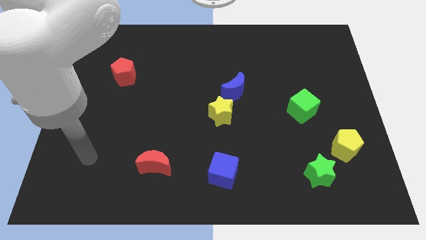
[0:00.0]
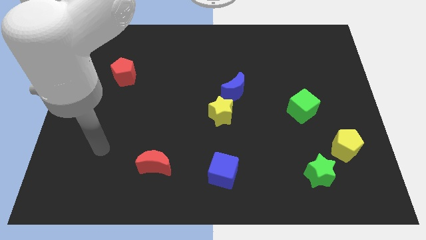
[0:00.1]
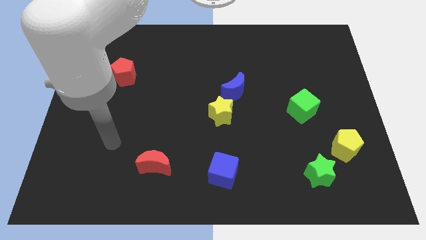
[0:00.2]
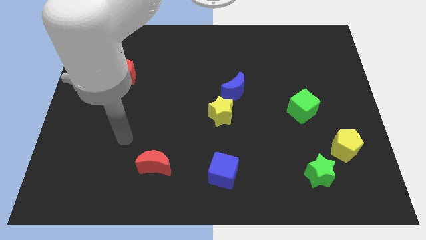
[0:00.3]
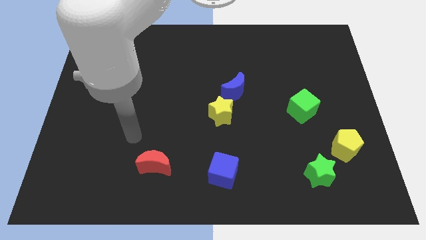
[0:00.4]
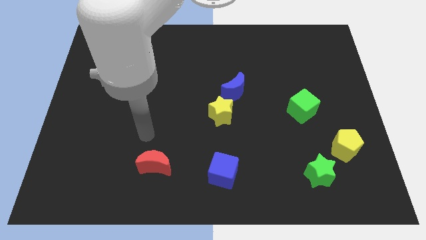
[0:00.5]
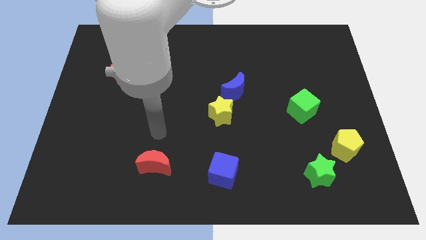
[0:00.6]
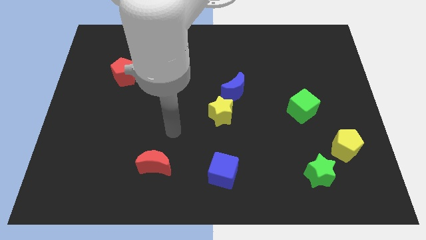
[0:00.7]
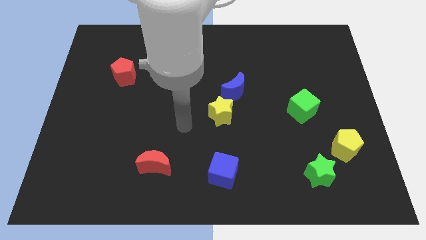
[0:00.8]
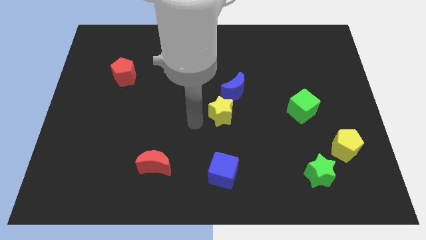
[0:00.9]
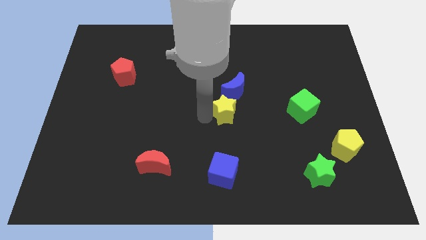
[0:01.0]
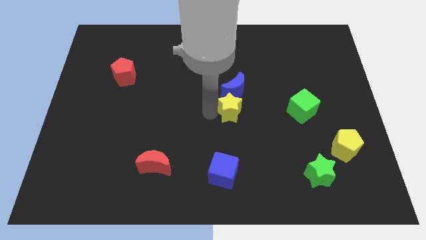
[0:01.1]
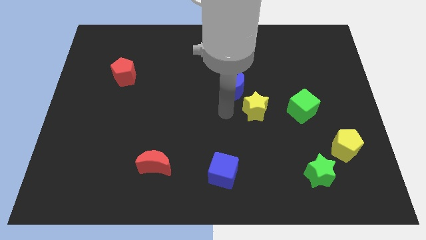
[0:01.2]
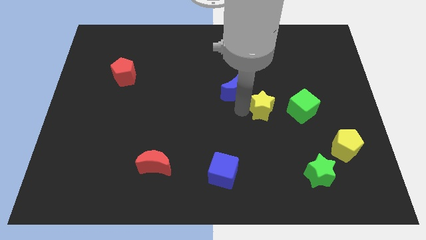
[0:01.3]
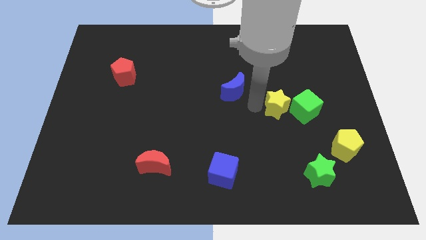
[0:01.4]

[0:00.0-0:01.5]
separate the blue moon from the yellow star

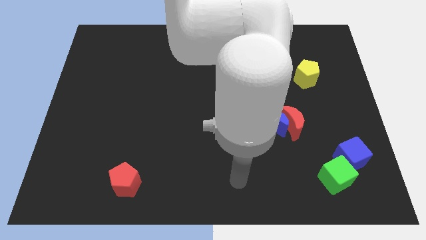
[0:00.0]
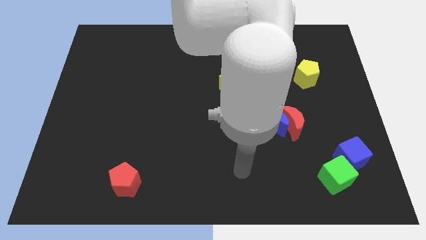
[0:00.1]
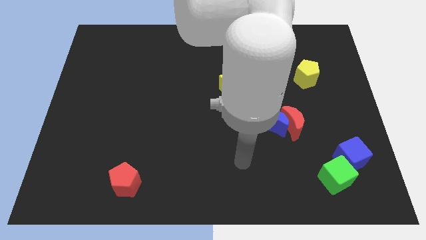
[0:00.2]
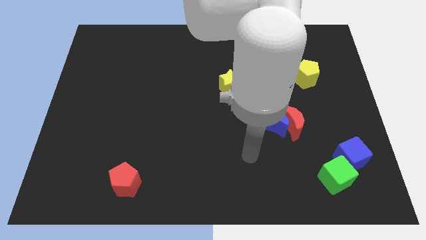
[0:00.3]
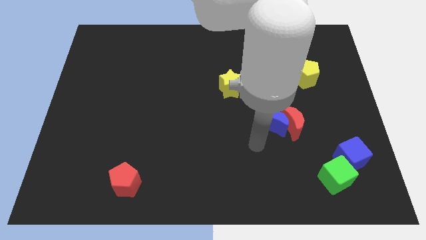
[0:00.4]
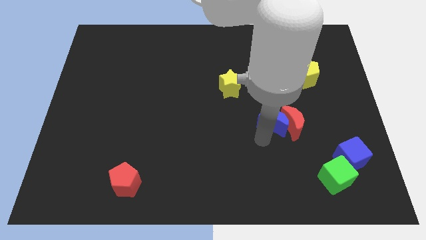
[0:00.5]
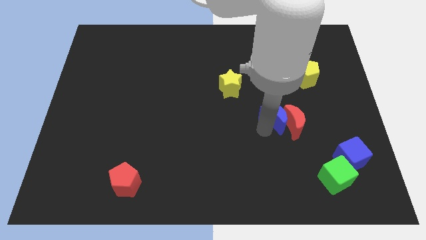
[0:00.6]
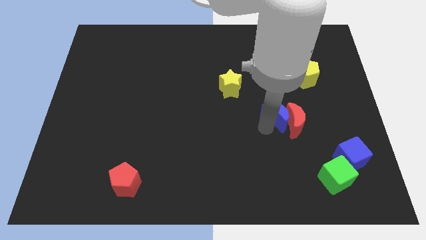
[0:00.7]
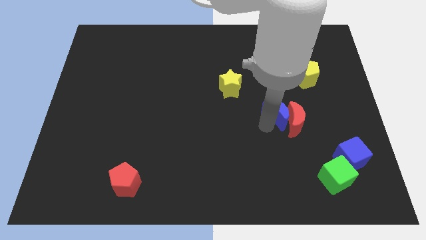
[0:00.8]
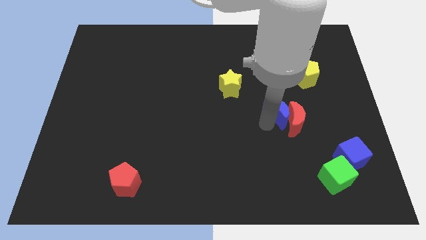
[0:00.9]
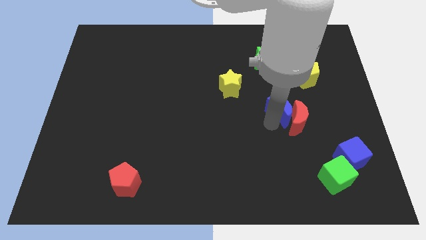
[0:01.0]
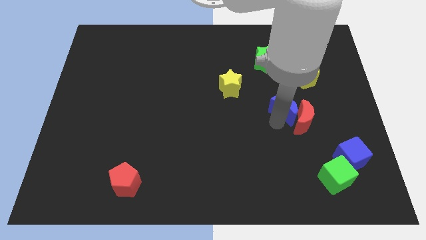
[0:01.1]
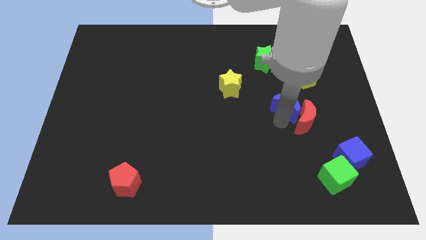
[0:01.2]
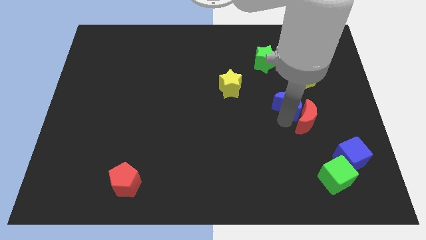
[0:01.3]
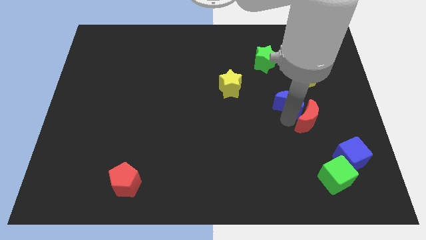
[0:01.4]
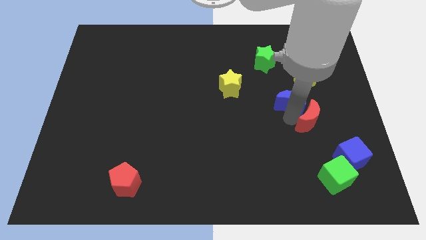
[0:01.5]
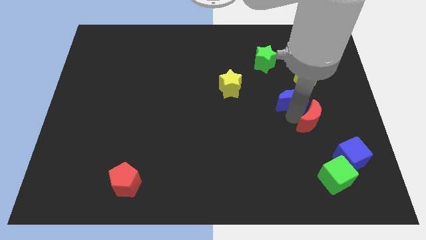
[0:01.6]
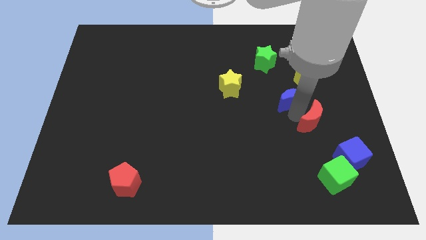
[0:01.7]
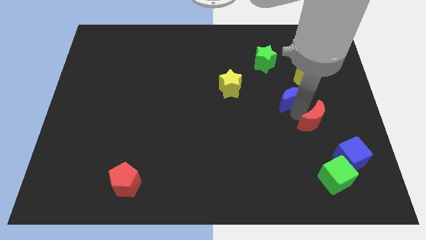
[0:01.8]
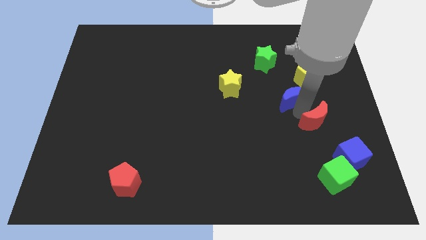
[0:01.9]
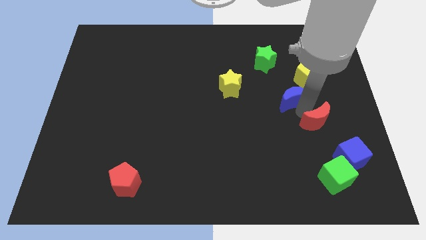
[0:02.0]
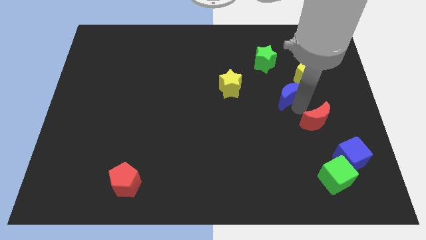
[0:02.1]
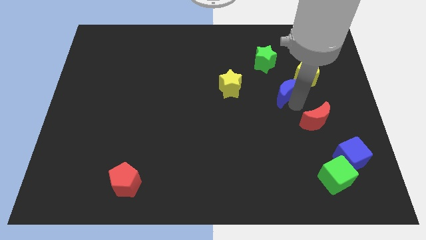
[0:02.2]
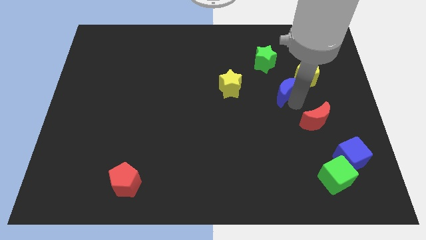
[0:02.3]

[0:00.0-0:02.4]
separate the red moon from the blue moon

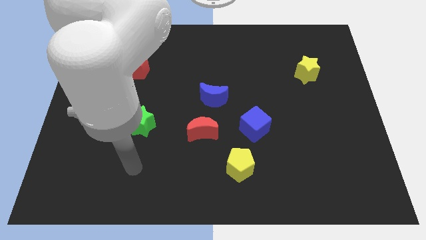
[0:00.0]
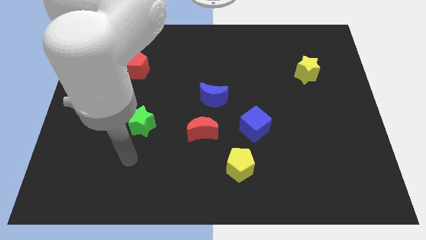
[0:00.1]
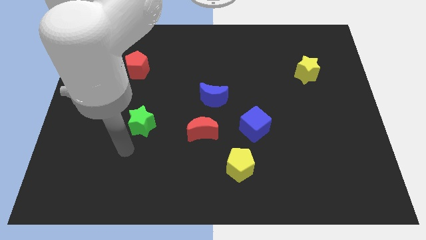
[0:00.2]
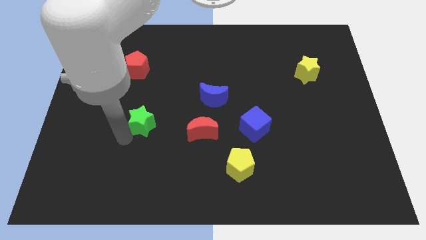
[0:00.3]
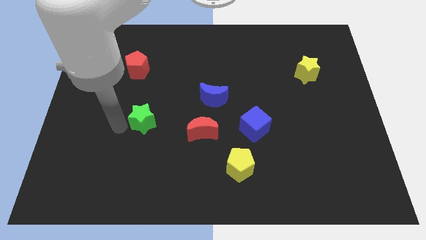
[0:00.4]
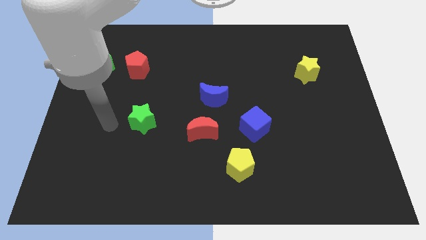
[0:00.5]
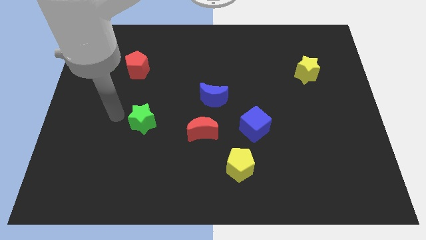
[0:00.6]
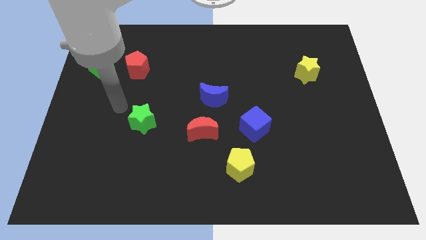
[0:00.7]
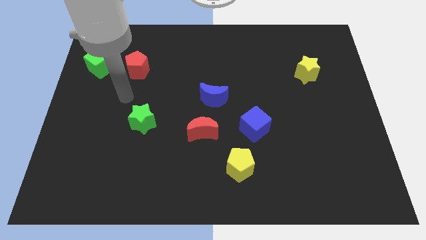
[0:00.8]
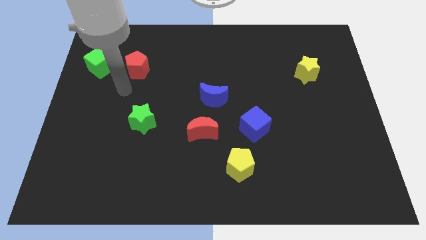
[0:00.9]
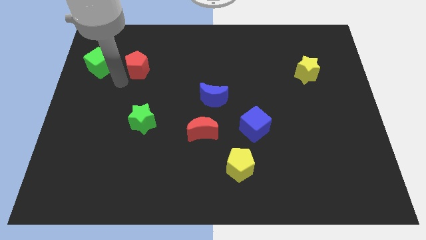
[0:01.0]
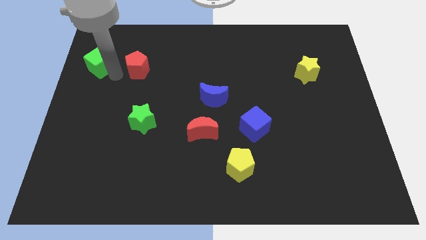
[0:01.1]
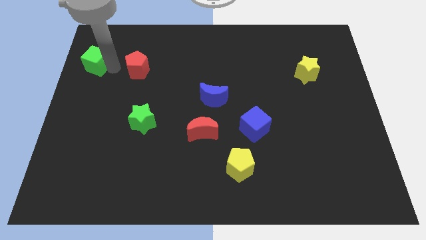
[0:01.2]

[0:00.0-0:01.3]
move the red pentagon away from the green cube

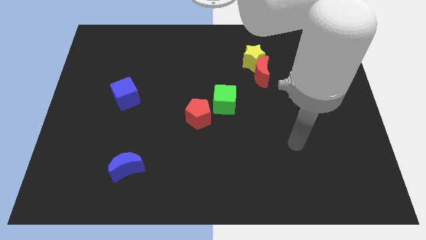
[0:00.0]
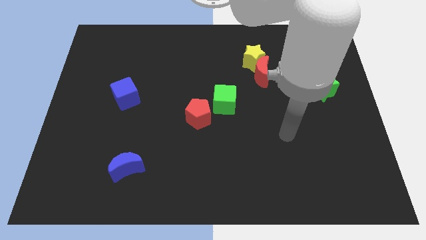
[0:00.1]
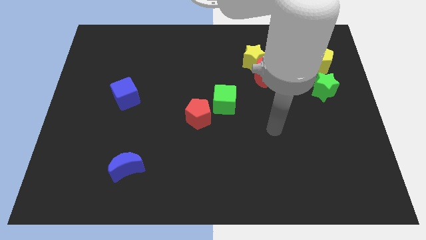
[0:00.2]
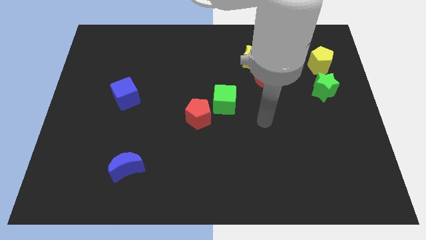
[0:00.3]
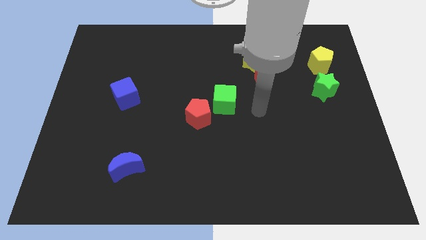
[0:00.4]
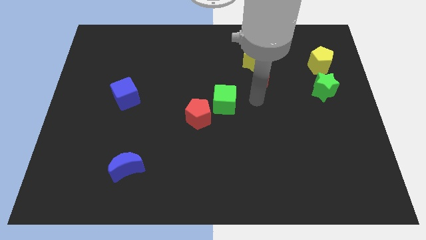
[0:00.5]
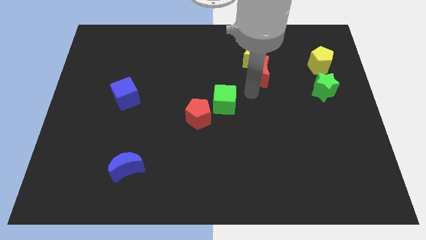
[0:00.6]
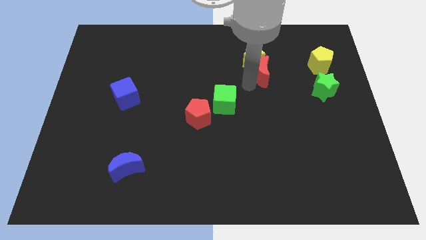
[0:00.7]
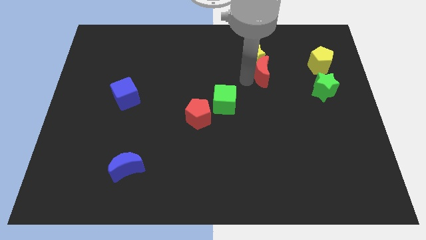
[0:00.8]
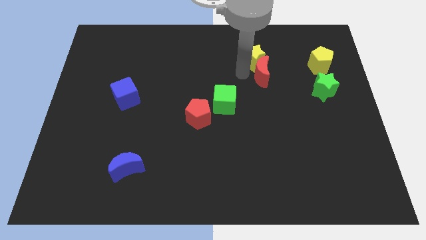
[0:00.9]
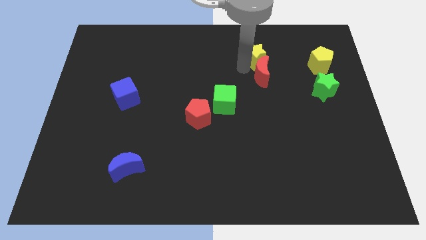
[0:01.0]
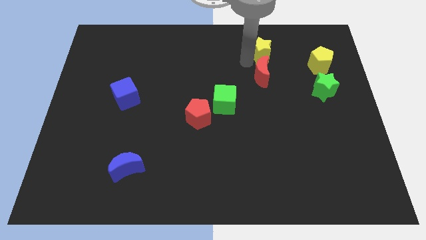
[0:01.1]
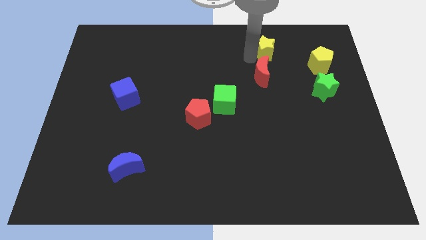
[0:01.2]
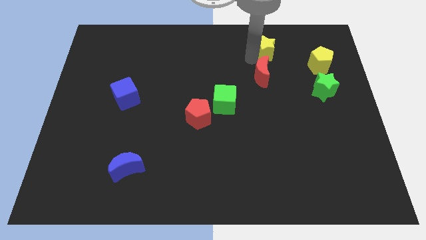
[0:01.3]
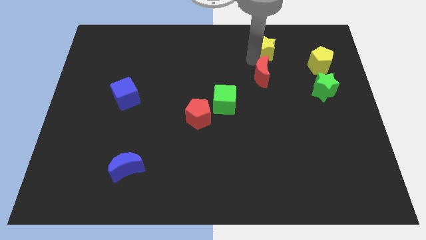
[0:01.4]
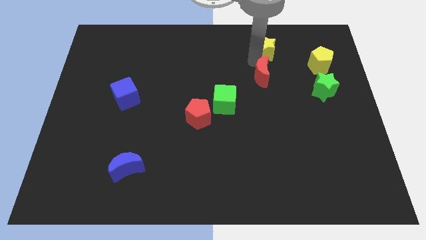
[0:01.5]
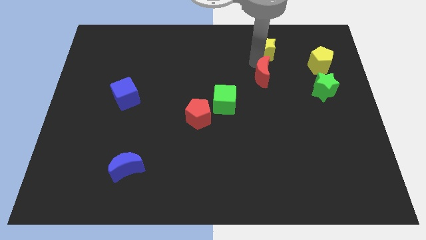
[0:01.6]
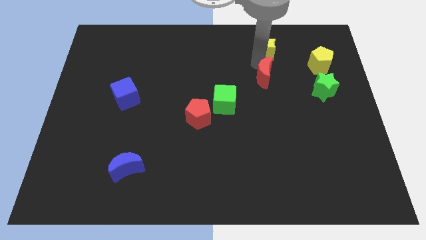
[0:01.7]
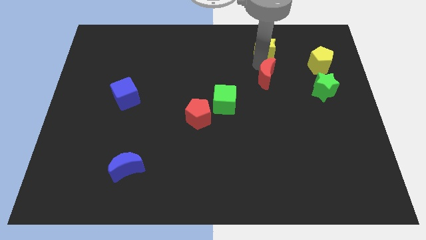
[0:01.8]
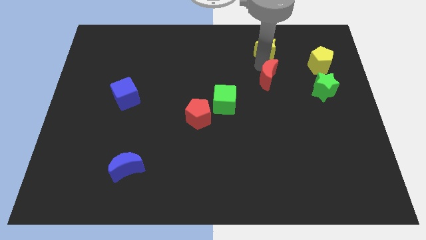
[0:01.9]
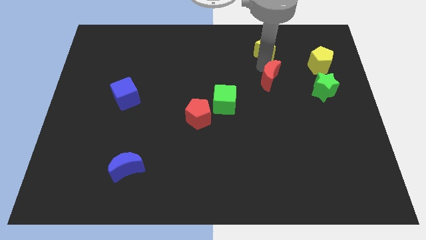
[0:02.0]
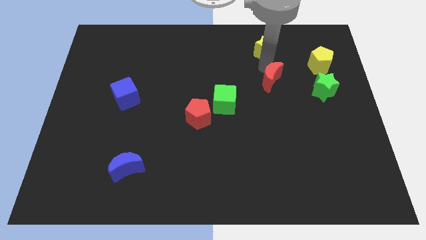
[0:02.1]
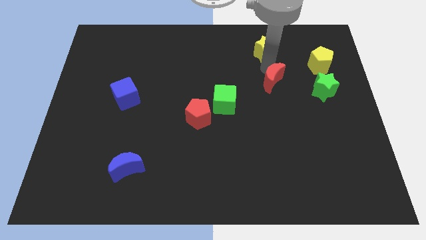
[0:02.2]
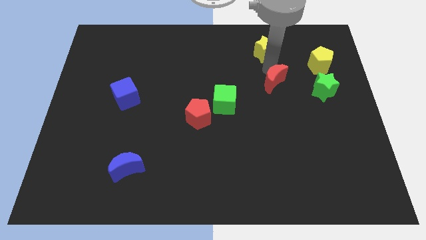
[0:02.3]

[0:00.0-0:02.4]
move the red moon away from the yellow star

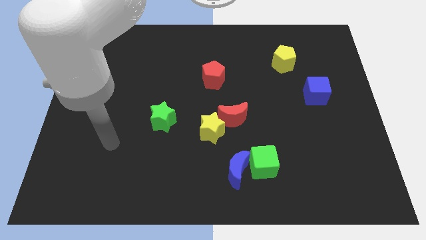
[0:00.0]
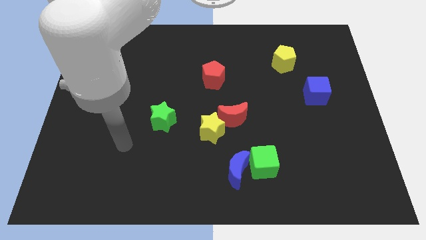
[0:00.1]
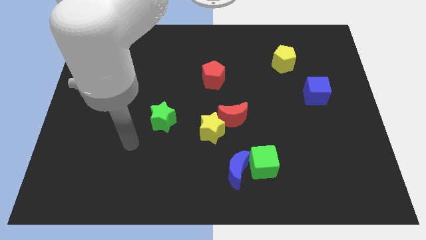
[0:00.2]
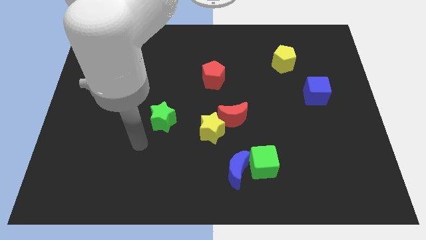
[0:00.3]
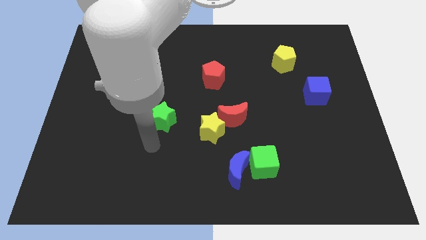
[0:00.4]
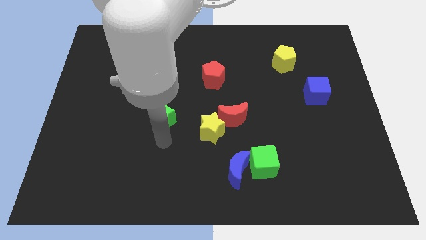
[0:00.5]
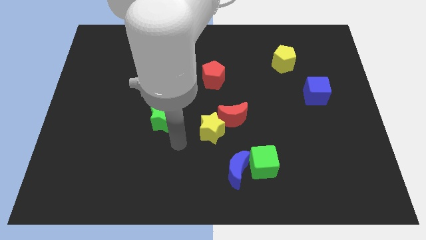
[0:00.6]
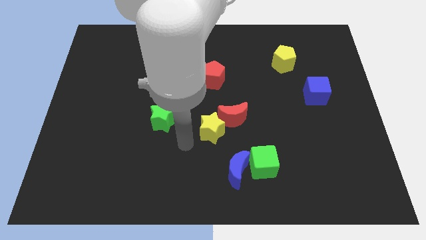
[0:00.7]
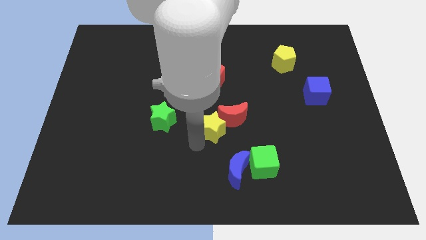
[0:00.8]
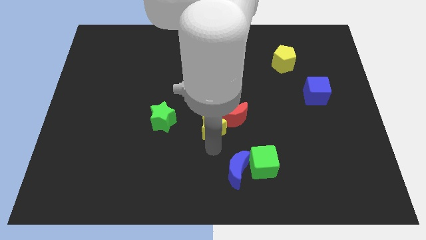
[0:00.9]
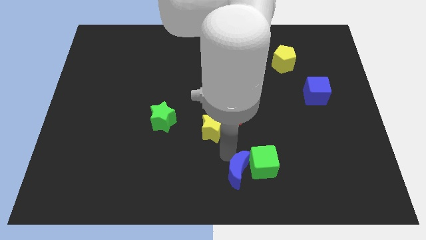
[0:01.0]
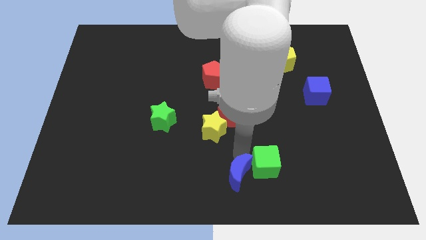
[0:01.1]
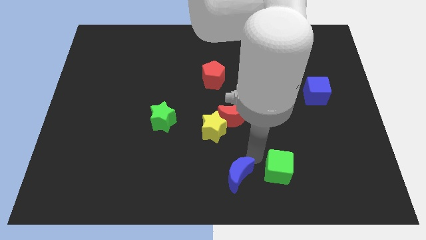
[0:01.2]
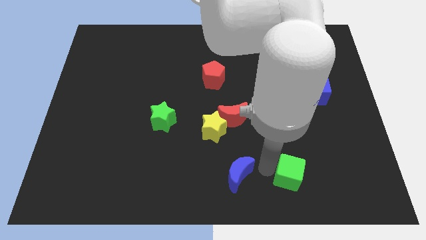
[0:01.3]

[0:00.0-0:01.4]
pull the blue moon apart from the green cube

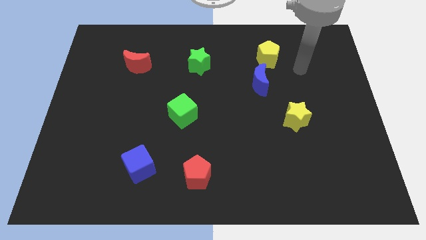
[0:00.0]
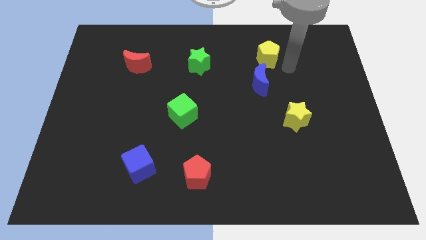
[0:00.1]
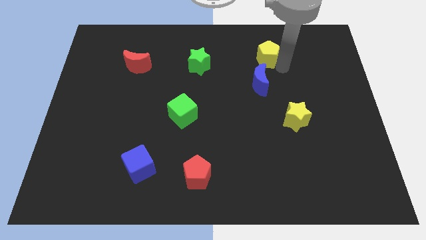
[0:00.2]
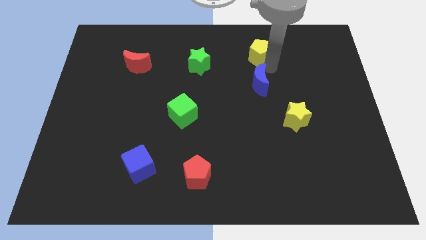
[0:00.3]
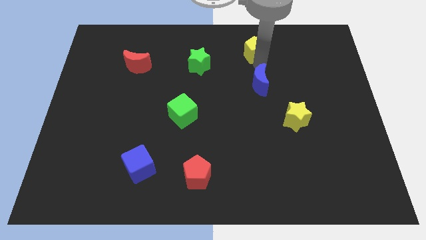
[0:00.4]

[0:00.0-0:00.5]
separate the blue moon from the yellow pentagon
